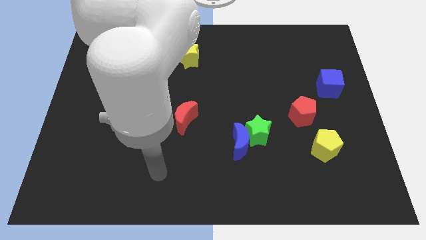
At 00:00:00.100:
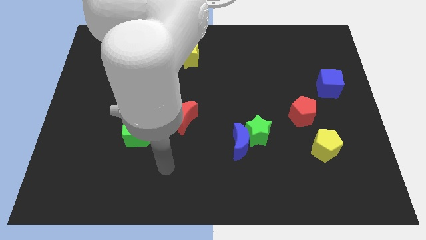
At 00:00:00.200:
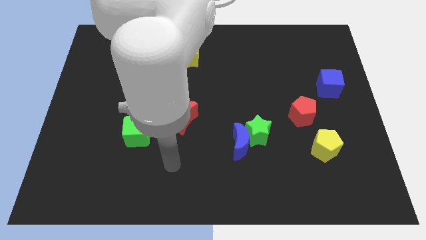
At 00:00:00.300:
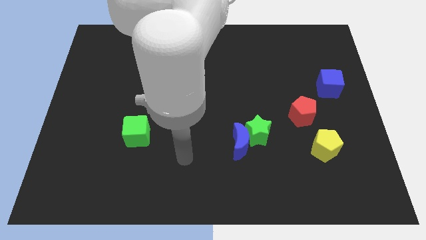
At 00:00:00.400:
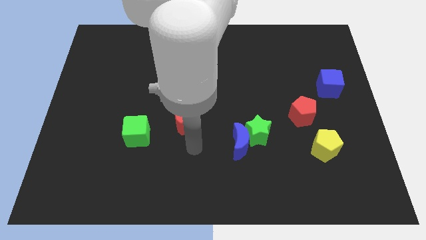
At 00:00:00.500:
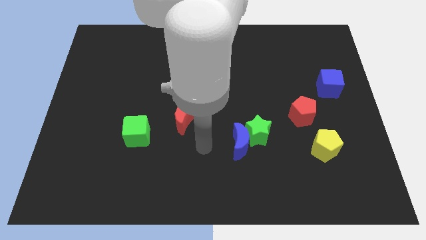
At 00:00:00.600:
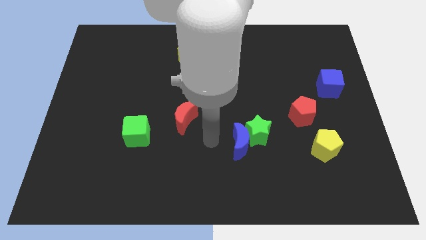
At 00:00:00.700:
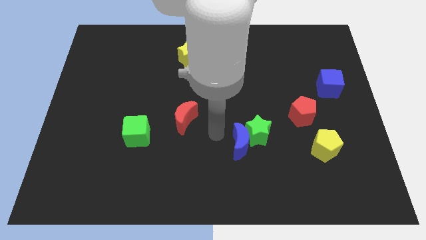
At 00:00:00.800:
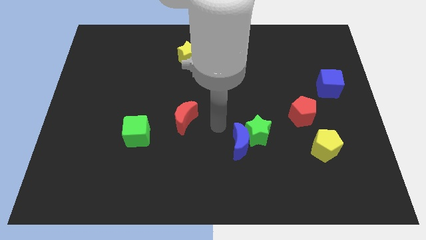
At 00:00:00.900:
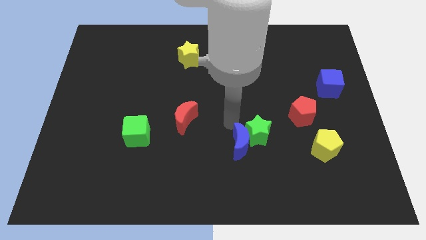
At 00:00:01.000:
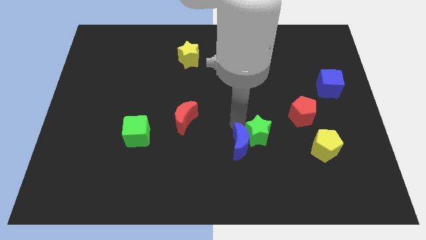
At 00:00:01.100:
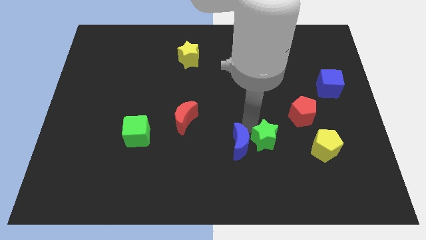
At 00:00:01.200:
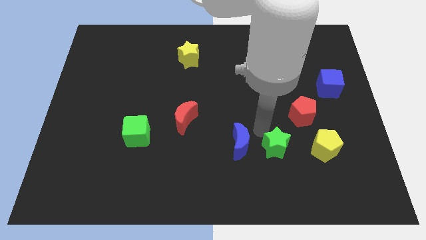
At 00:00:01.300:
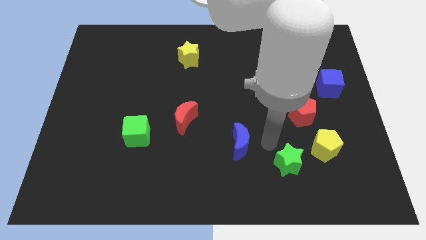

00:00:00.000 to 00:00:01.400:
move the blue moon away from the green star

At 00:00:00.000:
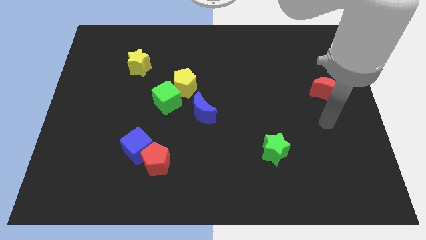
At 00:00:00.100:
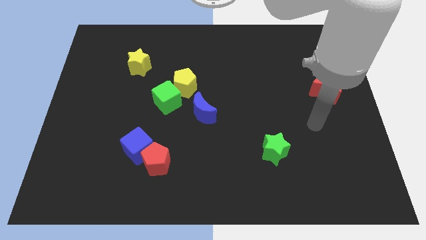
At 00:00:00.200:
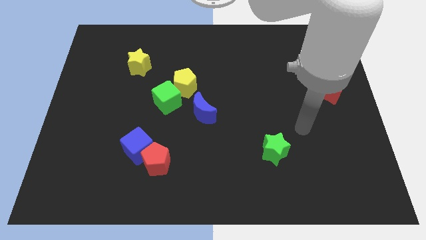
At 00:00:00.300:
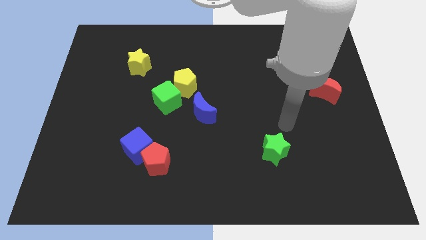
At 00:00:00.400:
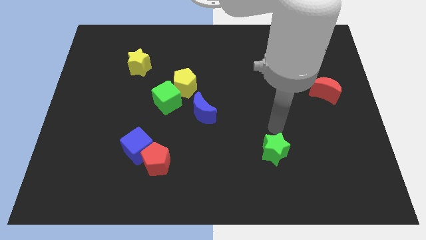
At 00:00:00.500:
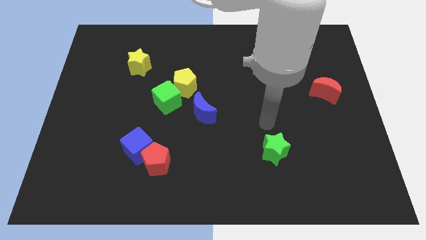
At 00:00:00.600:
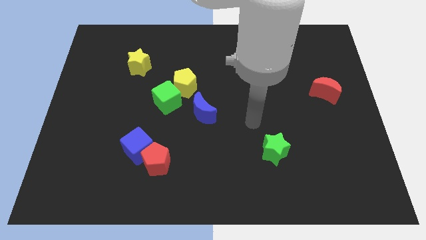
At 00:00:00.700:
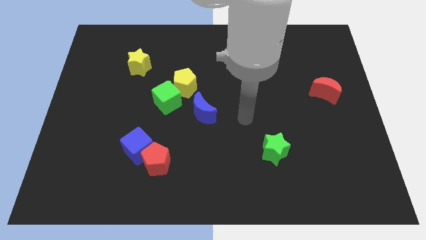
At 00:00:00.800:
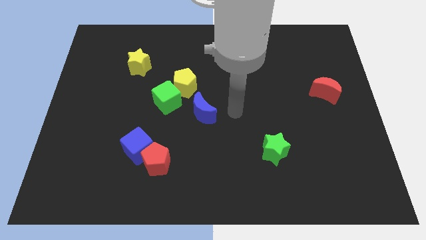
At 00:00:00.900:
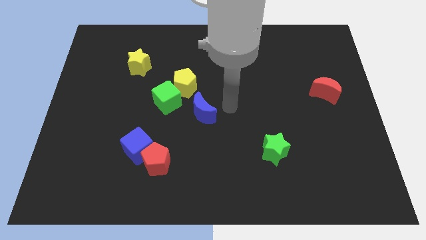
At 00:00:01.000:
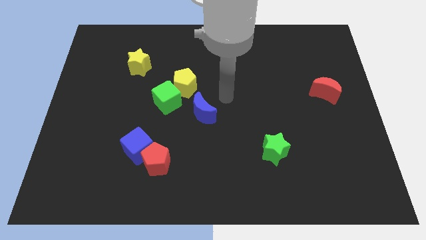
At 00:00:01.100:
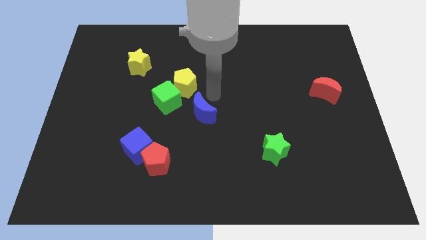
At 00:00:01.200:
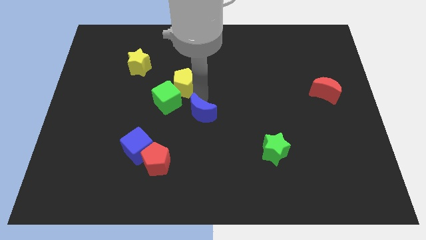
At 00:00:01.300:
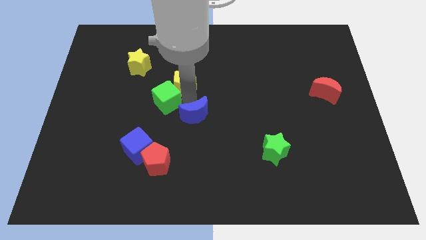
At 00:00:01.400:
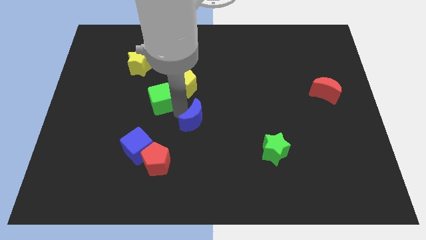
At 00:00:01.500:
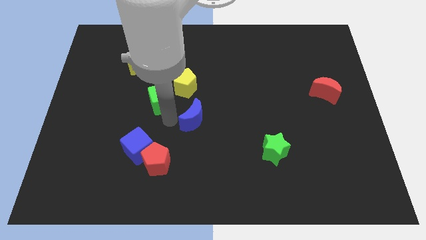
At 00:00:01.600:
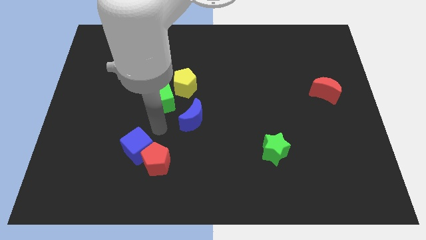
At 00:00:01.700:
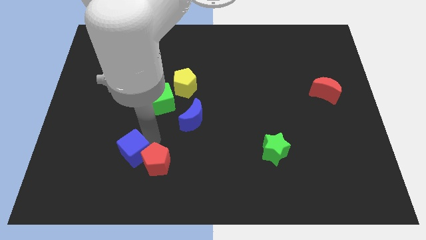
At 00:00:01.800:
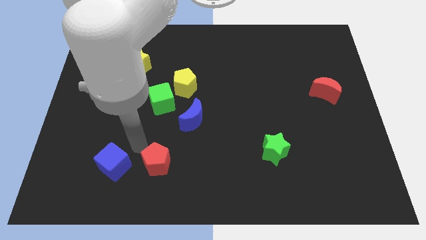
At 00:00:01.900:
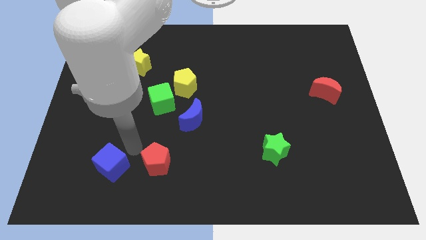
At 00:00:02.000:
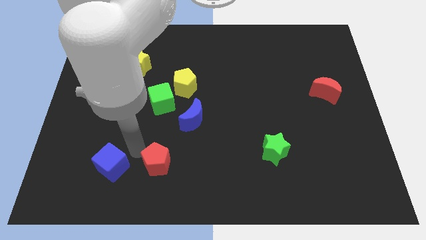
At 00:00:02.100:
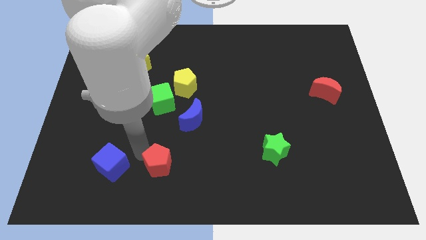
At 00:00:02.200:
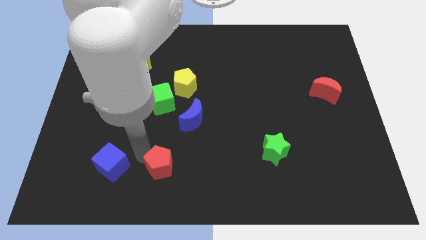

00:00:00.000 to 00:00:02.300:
separate the red pentagon from the blue cube

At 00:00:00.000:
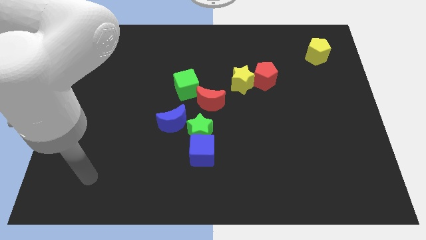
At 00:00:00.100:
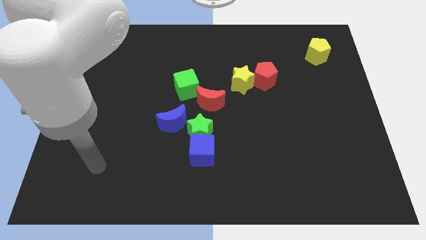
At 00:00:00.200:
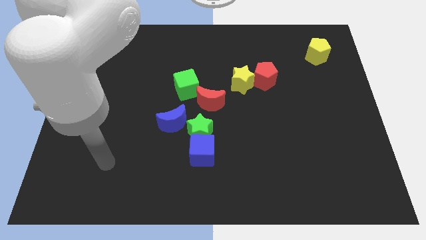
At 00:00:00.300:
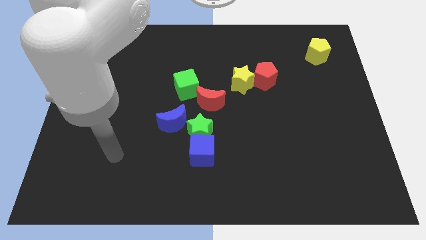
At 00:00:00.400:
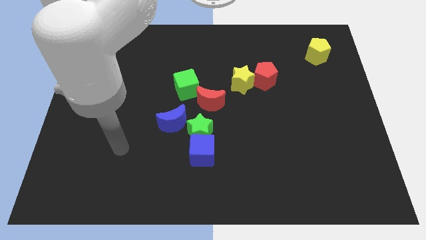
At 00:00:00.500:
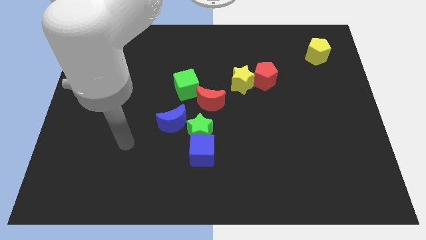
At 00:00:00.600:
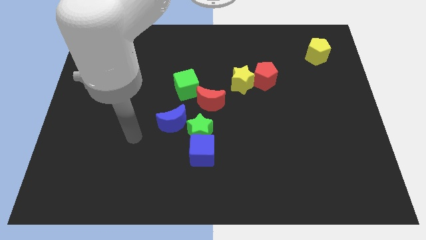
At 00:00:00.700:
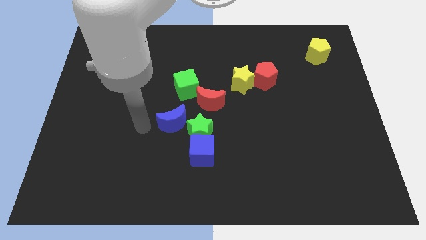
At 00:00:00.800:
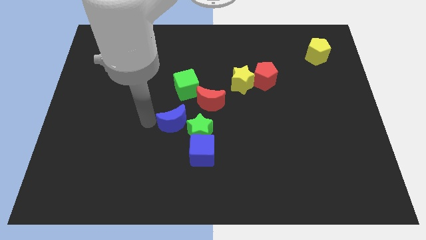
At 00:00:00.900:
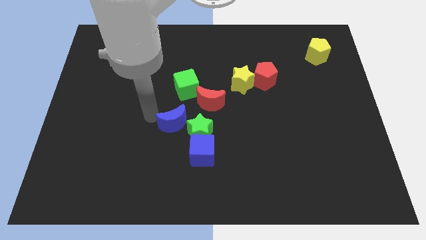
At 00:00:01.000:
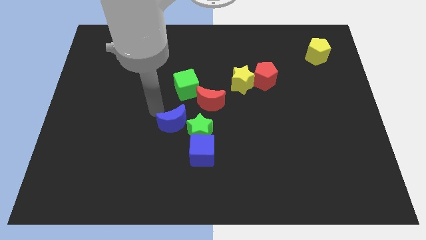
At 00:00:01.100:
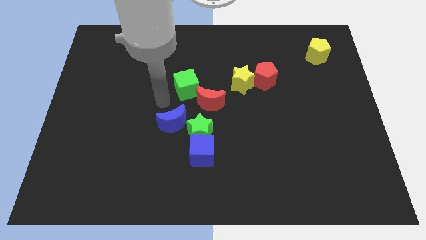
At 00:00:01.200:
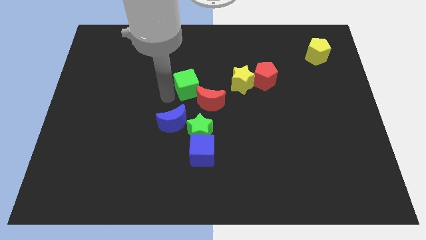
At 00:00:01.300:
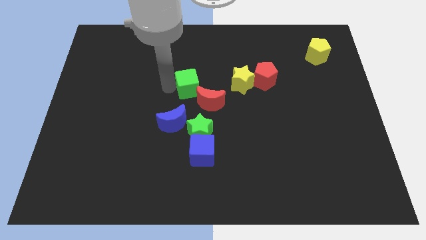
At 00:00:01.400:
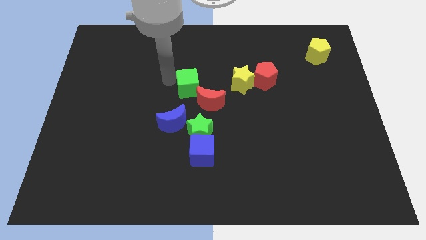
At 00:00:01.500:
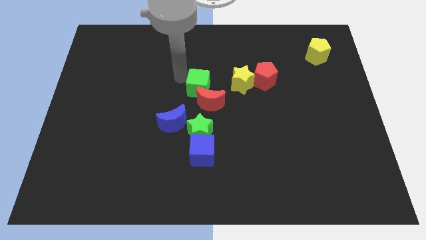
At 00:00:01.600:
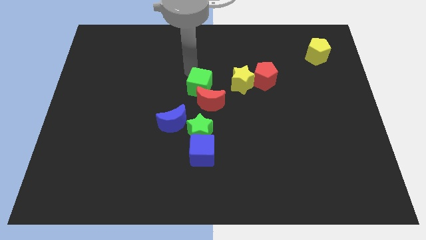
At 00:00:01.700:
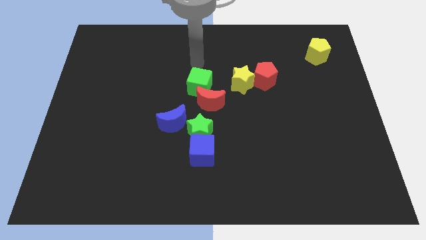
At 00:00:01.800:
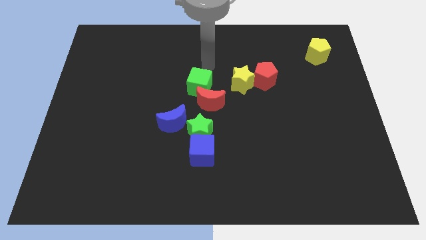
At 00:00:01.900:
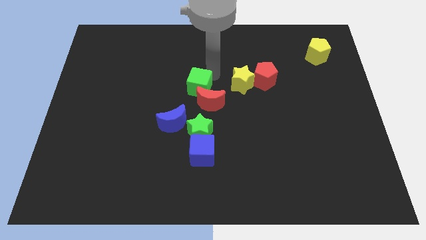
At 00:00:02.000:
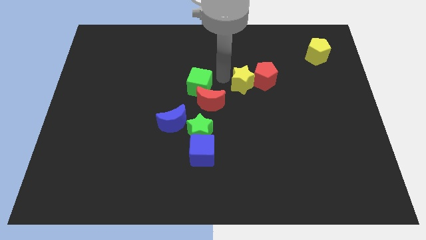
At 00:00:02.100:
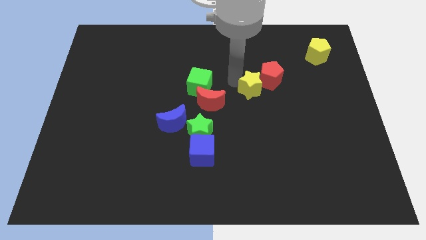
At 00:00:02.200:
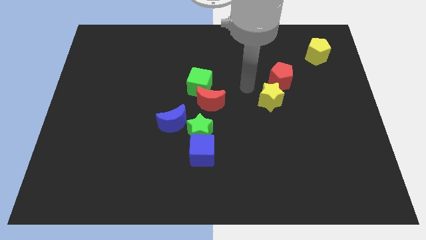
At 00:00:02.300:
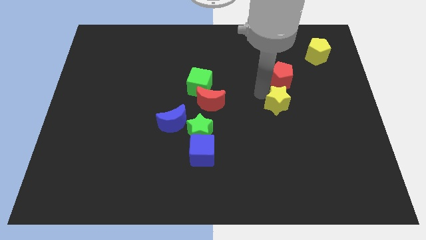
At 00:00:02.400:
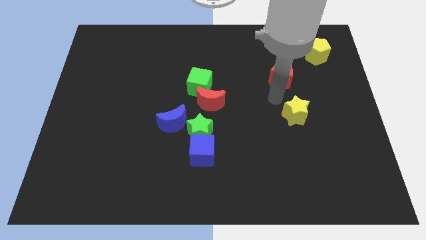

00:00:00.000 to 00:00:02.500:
separate the red pentagon from the yellow star

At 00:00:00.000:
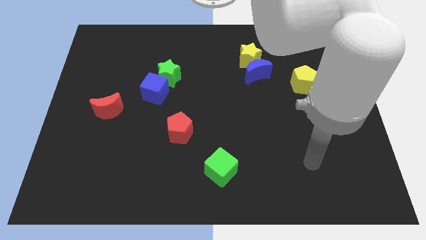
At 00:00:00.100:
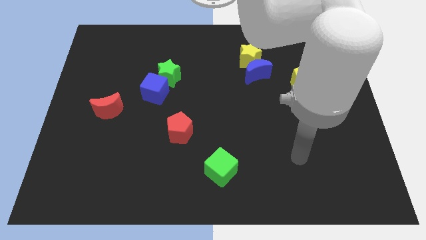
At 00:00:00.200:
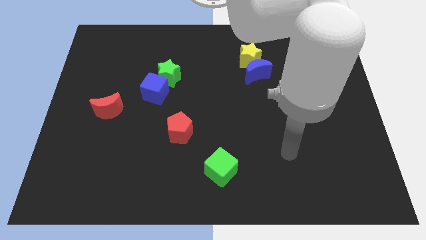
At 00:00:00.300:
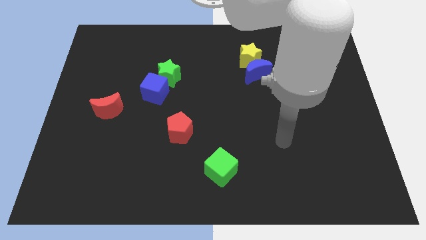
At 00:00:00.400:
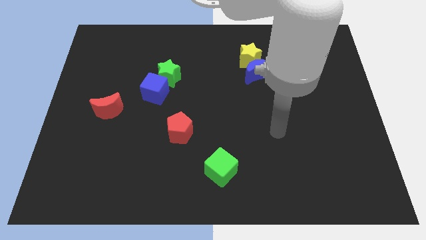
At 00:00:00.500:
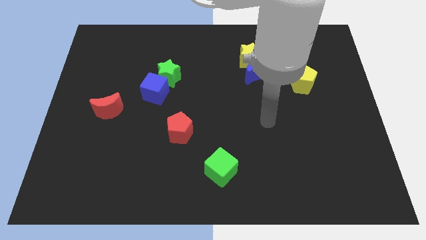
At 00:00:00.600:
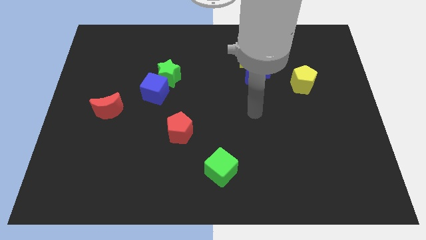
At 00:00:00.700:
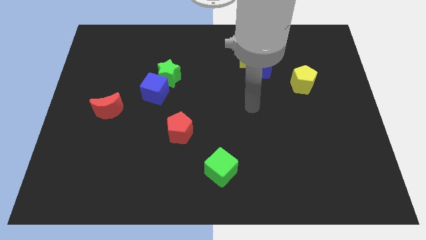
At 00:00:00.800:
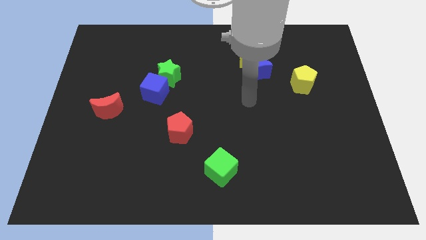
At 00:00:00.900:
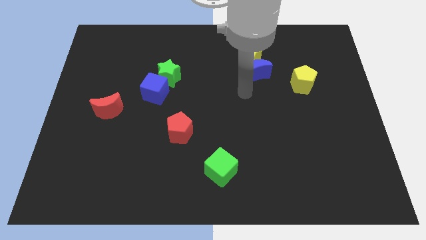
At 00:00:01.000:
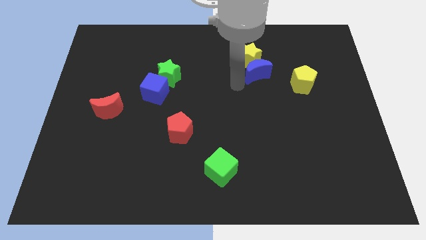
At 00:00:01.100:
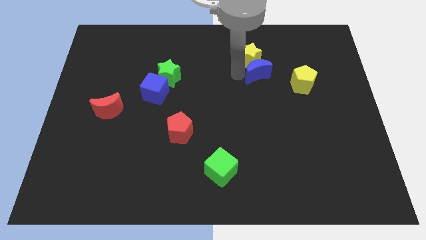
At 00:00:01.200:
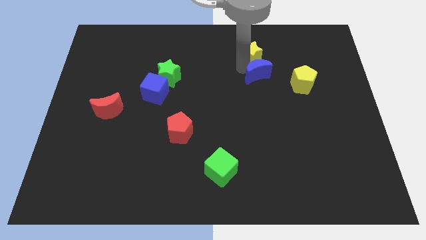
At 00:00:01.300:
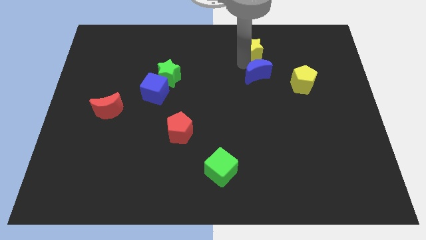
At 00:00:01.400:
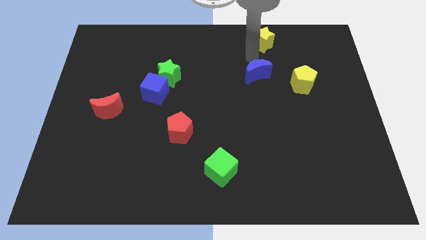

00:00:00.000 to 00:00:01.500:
separate the blue moon from the yellow star

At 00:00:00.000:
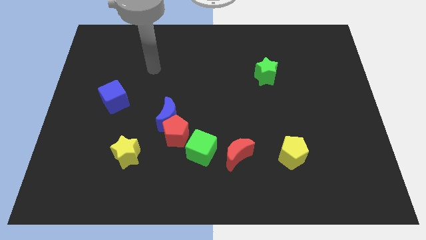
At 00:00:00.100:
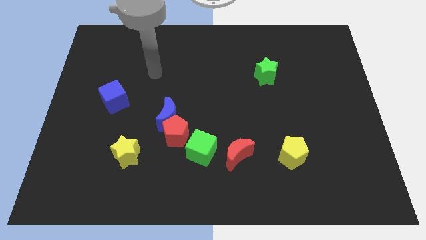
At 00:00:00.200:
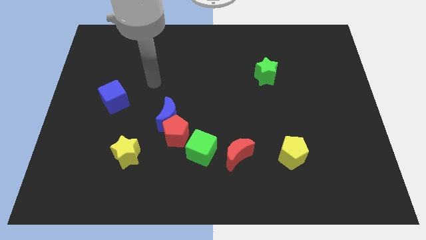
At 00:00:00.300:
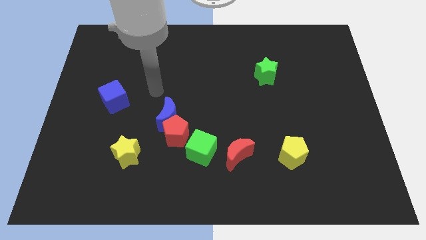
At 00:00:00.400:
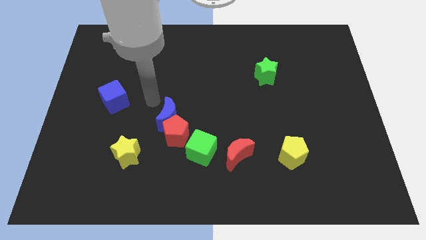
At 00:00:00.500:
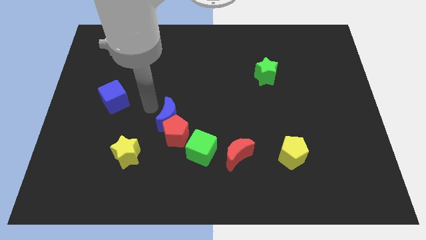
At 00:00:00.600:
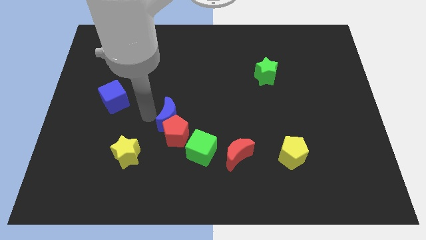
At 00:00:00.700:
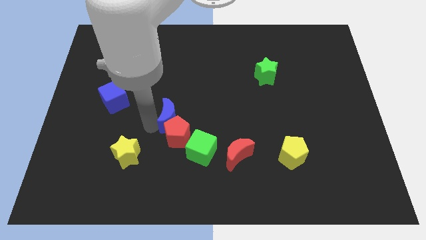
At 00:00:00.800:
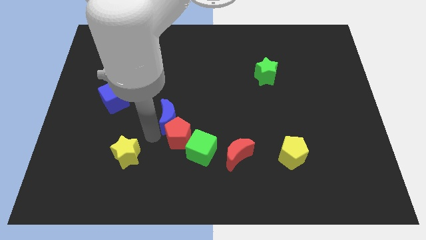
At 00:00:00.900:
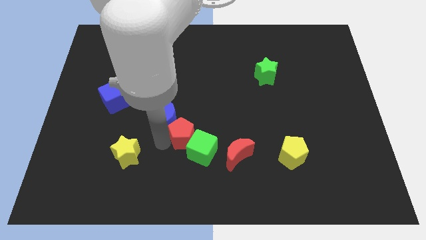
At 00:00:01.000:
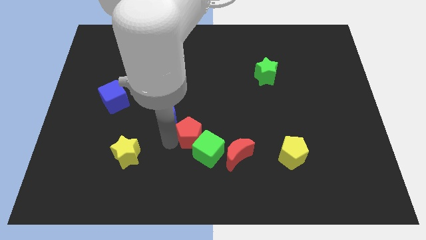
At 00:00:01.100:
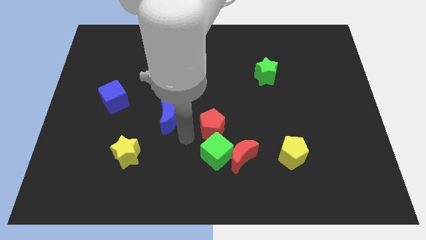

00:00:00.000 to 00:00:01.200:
move the blue moon away from the red pentagon

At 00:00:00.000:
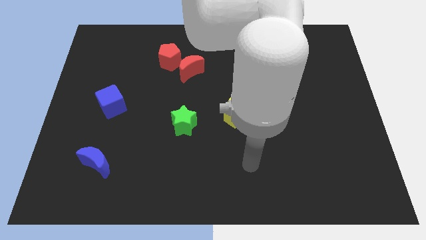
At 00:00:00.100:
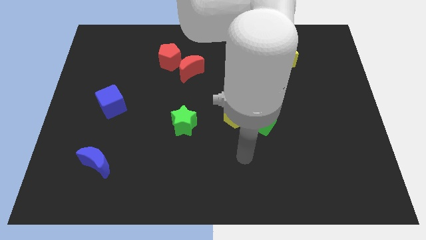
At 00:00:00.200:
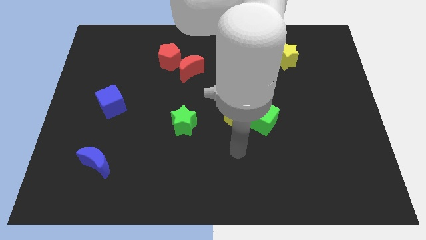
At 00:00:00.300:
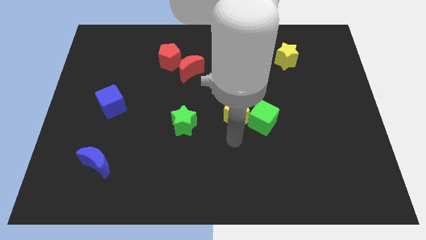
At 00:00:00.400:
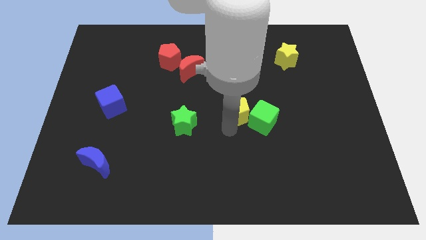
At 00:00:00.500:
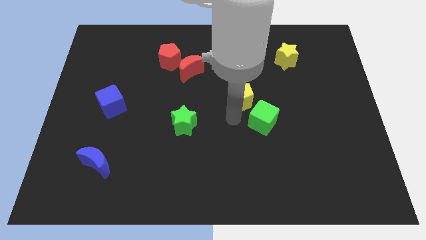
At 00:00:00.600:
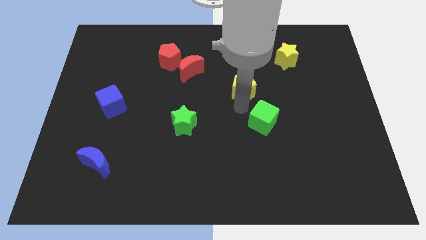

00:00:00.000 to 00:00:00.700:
separate the green cube from the yellow pentagon
